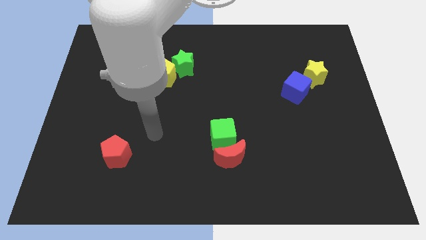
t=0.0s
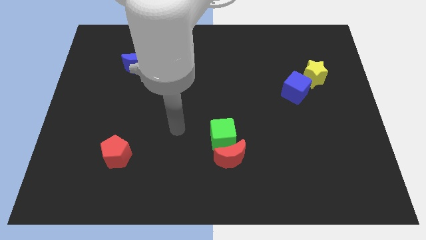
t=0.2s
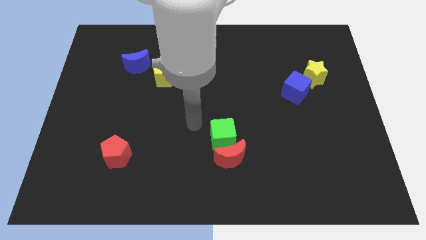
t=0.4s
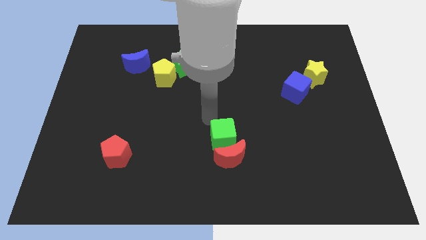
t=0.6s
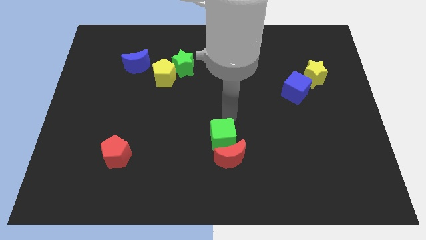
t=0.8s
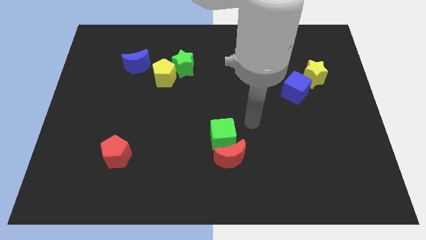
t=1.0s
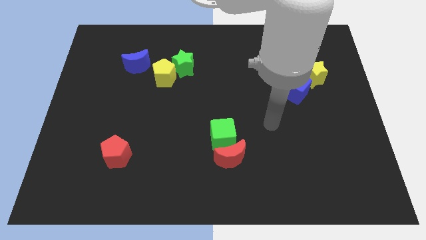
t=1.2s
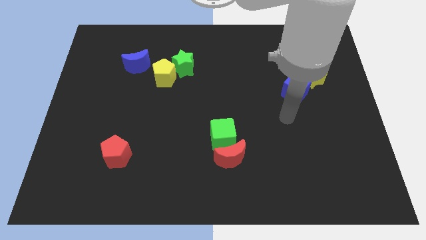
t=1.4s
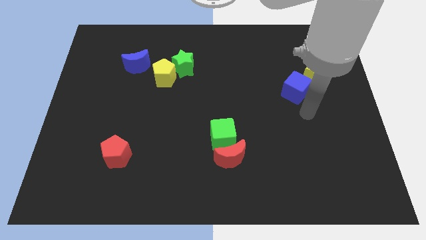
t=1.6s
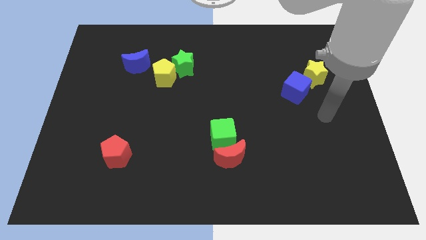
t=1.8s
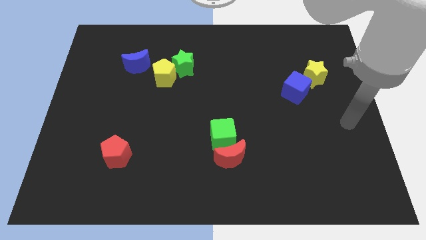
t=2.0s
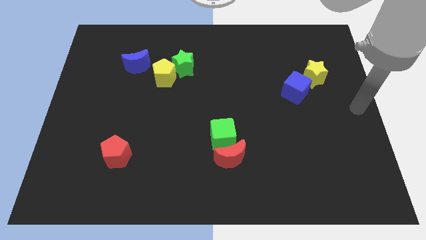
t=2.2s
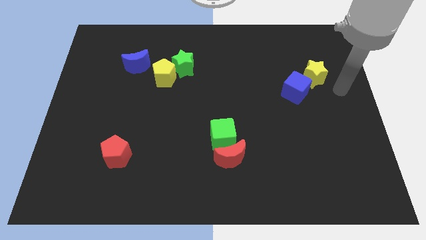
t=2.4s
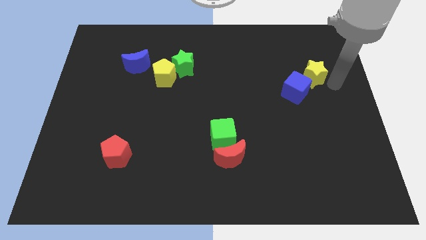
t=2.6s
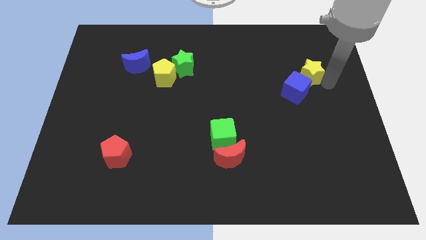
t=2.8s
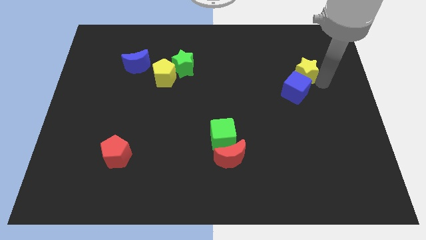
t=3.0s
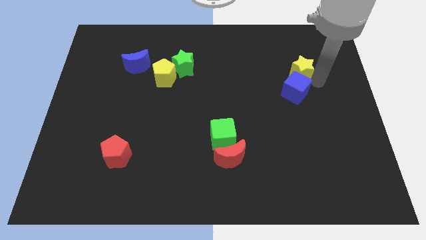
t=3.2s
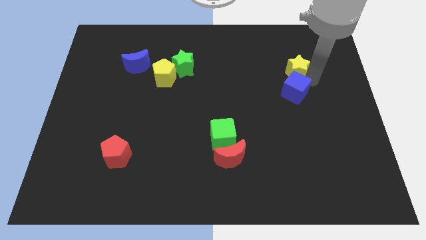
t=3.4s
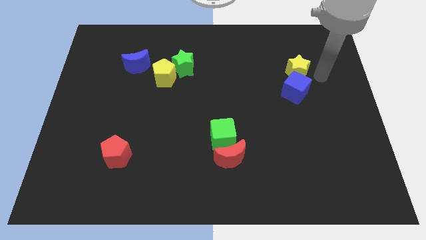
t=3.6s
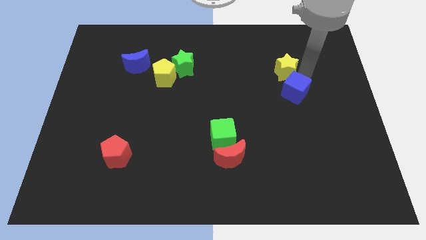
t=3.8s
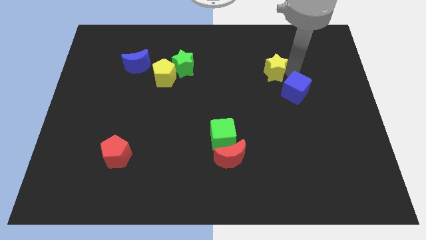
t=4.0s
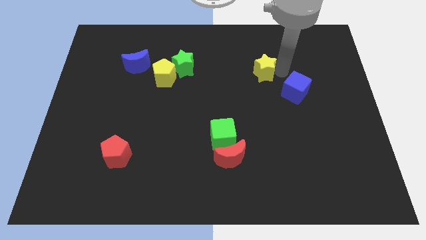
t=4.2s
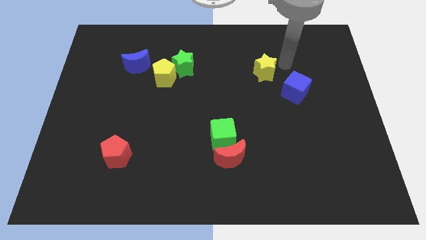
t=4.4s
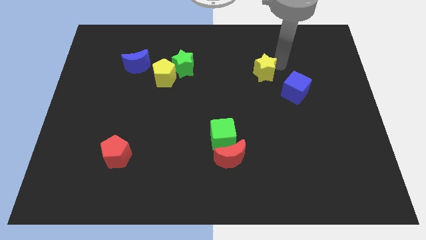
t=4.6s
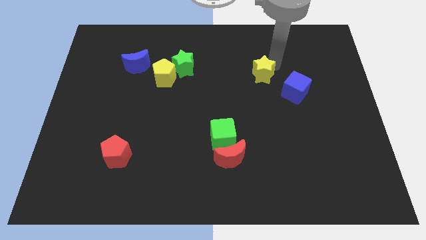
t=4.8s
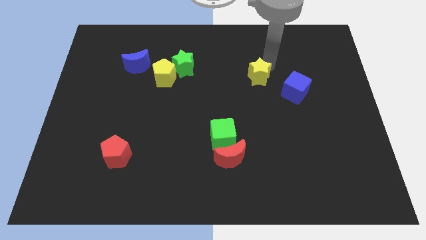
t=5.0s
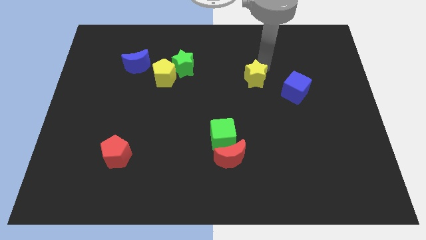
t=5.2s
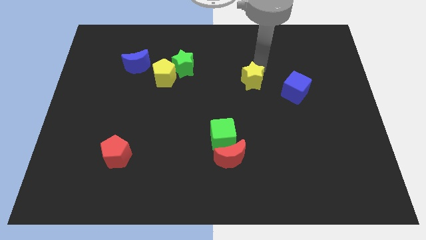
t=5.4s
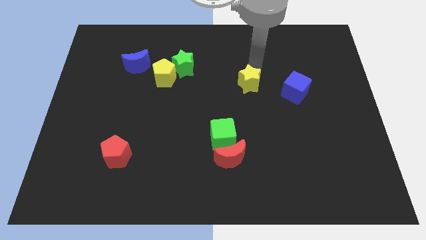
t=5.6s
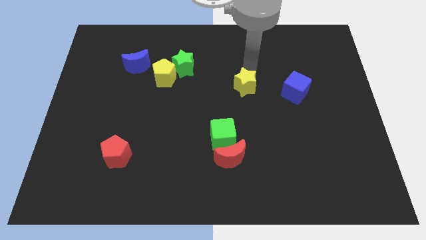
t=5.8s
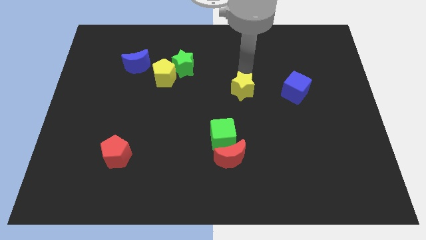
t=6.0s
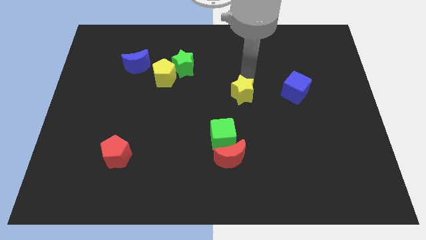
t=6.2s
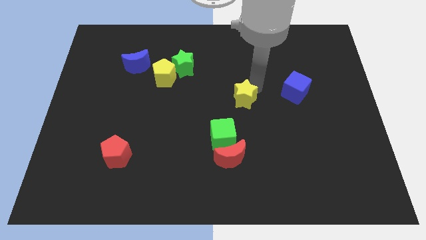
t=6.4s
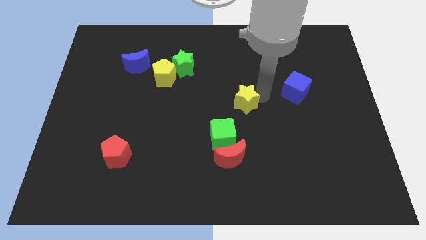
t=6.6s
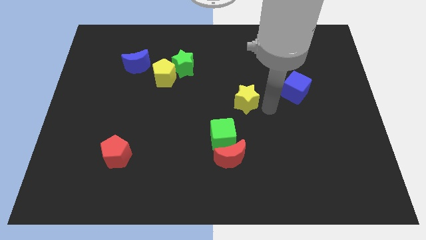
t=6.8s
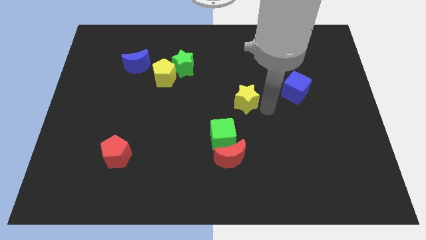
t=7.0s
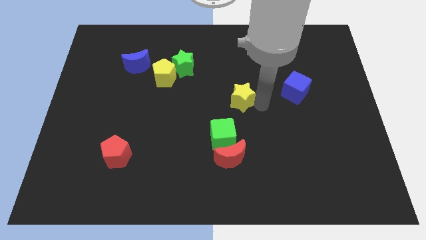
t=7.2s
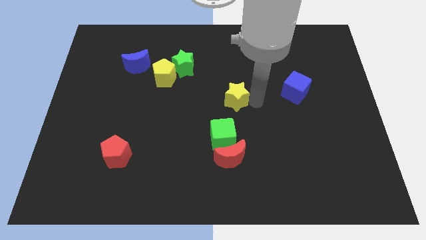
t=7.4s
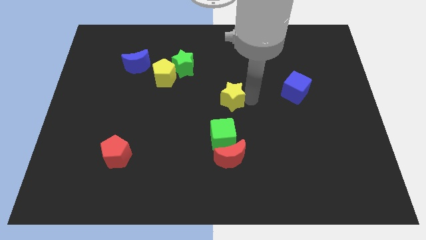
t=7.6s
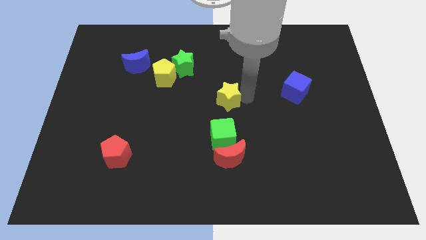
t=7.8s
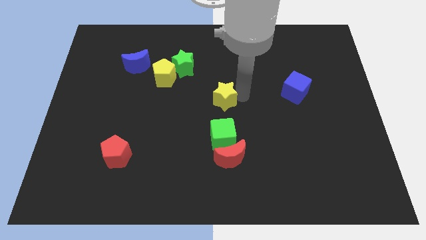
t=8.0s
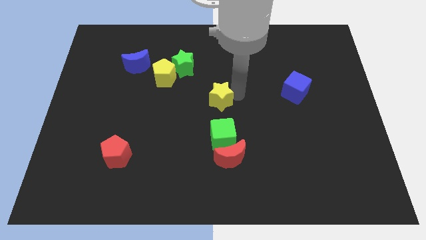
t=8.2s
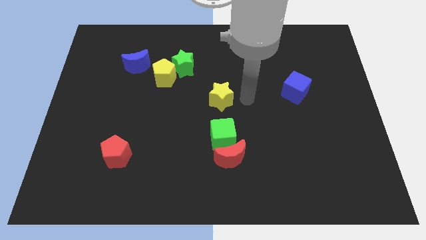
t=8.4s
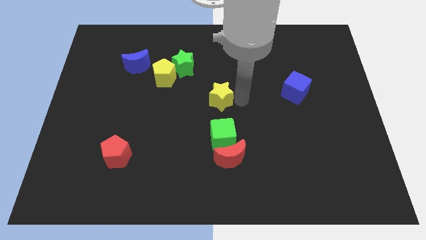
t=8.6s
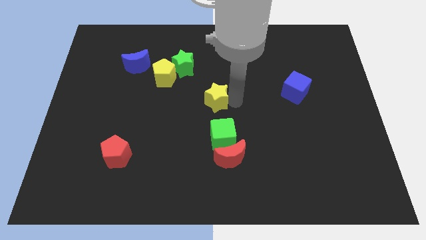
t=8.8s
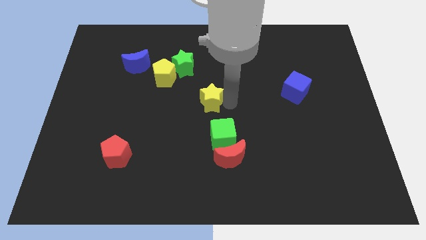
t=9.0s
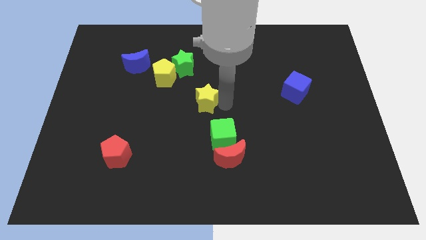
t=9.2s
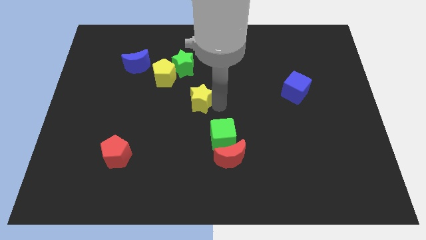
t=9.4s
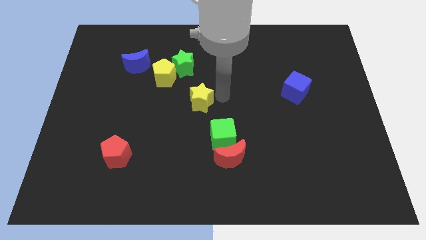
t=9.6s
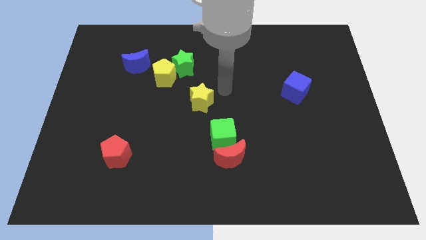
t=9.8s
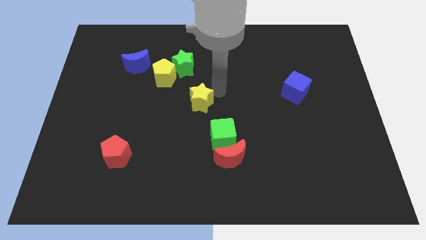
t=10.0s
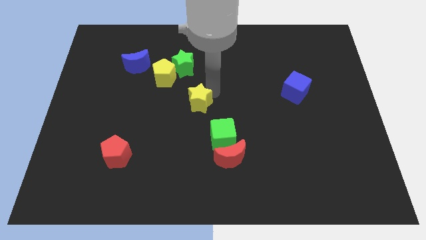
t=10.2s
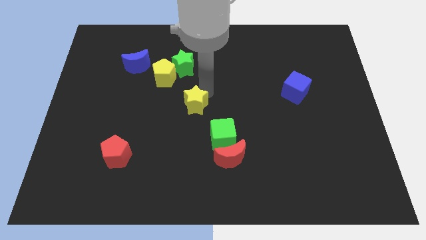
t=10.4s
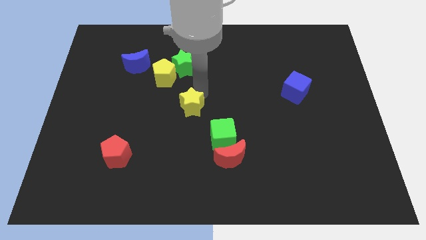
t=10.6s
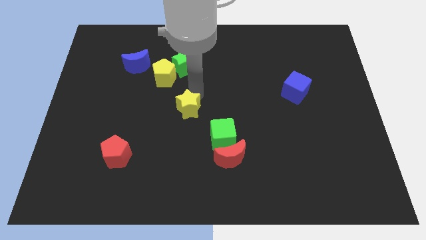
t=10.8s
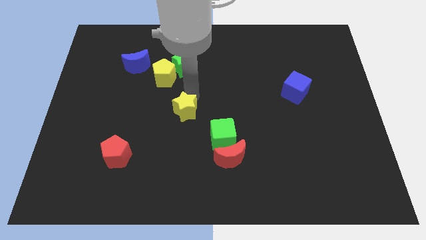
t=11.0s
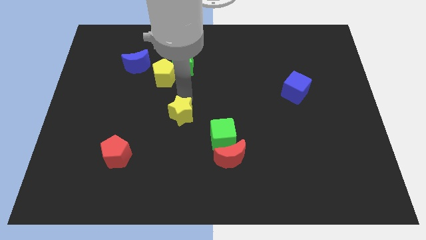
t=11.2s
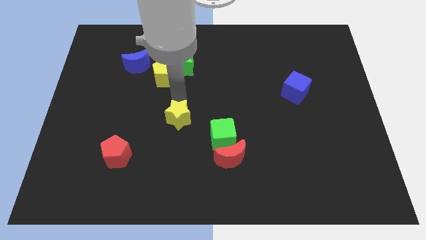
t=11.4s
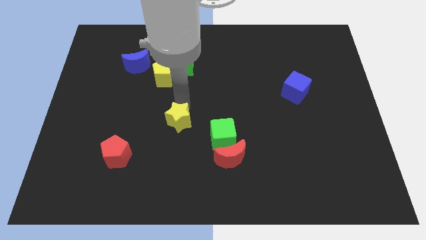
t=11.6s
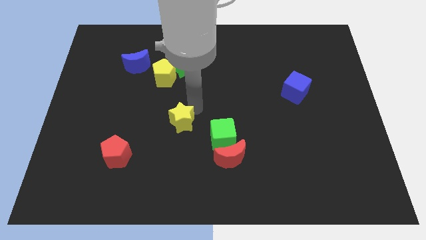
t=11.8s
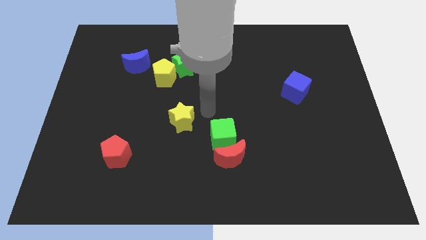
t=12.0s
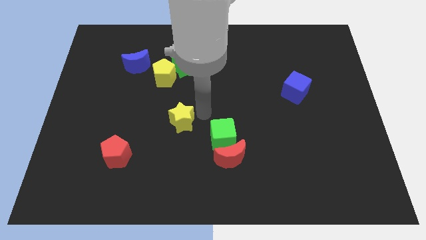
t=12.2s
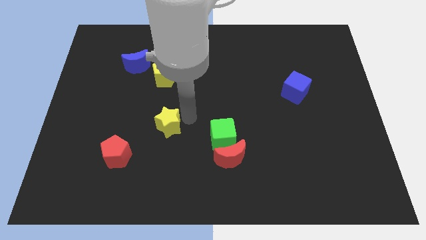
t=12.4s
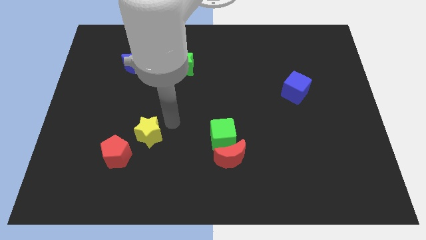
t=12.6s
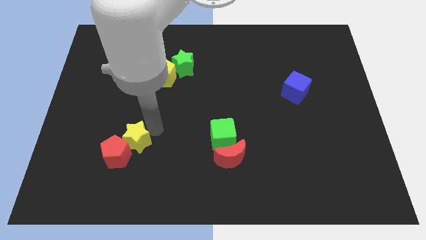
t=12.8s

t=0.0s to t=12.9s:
slide the yellow star towards the red pentagon

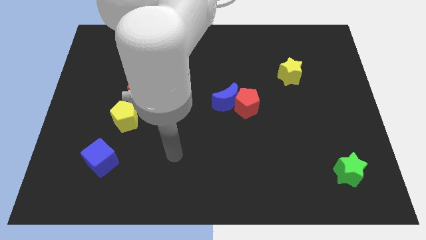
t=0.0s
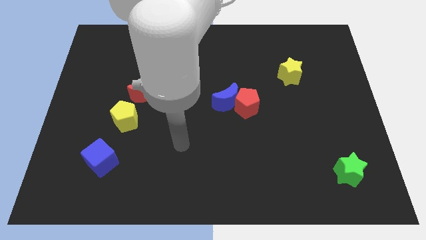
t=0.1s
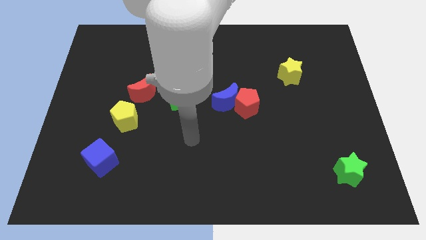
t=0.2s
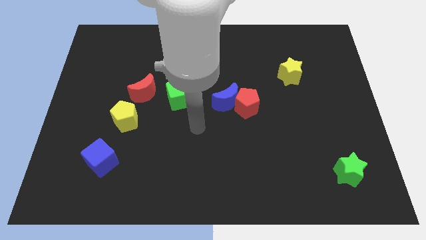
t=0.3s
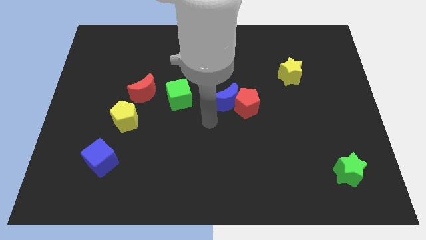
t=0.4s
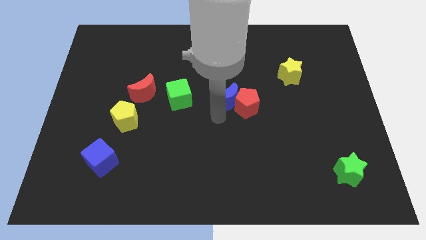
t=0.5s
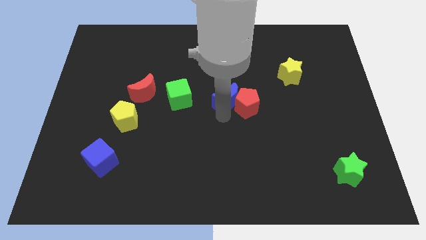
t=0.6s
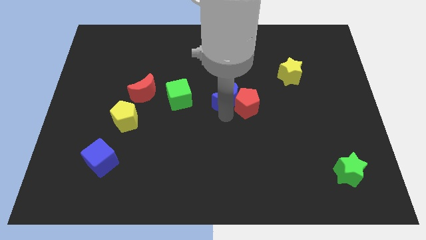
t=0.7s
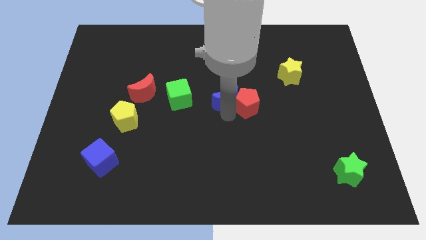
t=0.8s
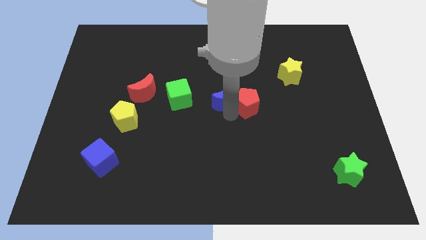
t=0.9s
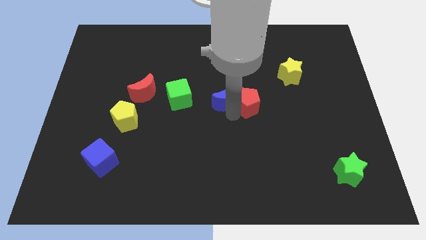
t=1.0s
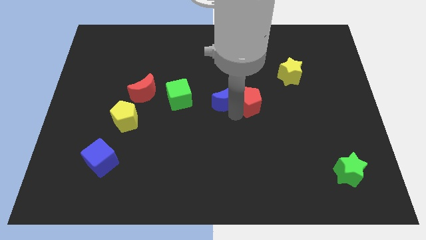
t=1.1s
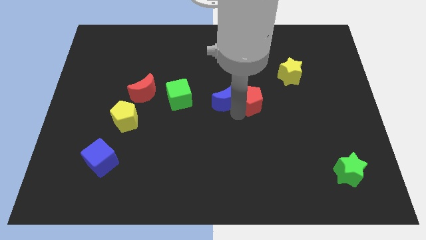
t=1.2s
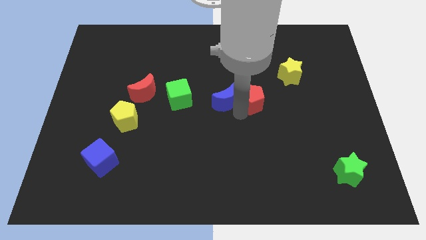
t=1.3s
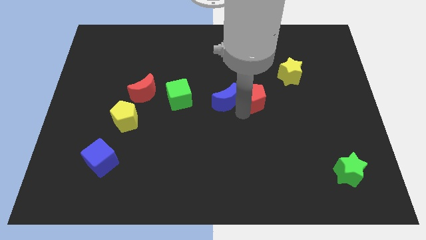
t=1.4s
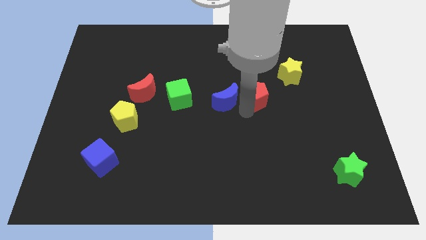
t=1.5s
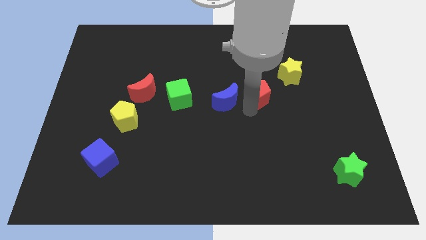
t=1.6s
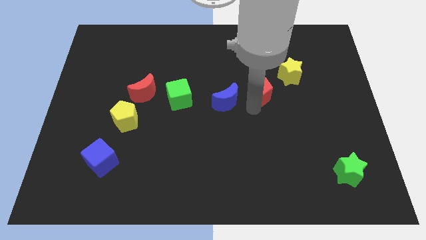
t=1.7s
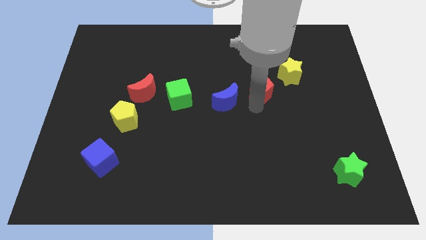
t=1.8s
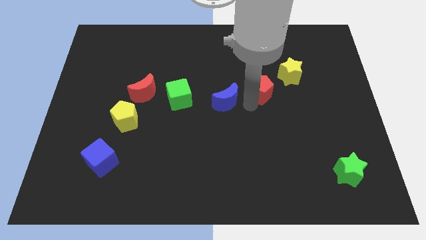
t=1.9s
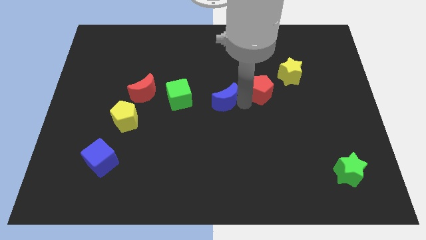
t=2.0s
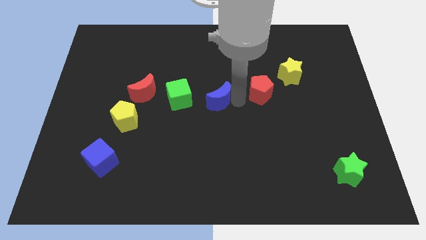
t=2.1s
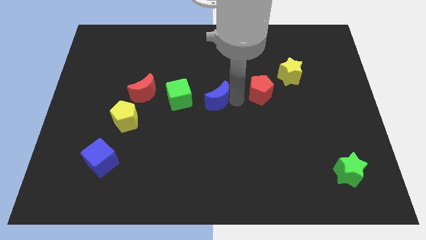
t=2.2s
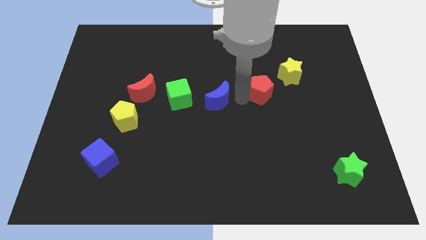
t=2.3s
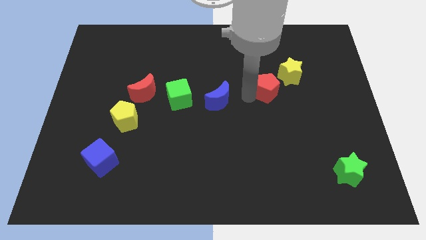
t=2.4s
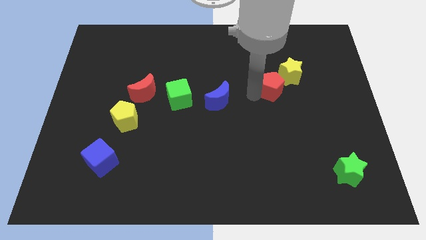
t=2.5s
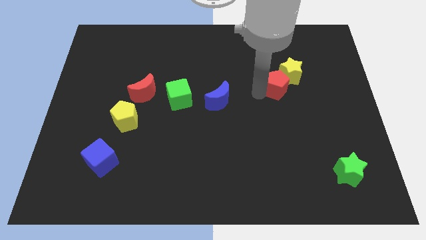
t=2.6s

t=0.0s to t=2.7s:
slide the red pentagon close to the yellow star
